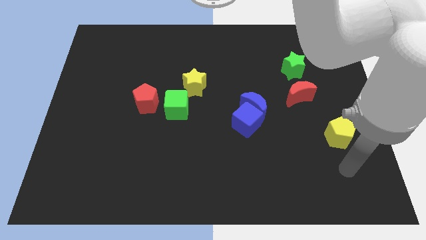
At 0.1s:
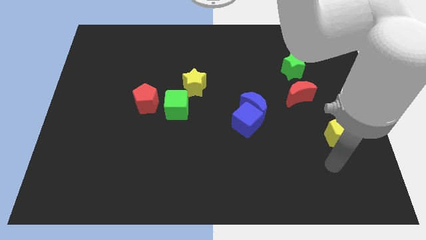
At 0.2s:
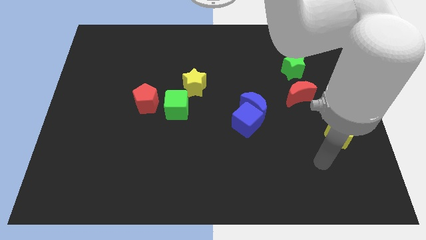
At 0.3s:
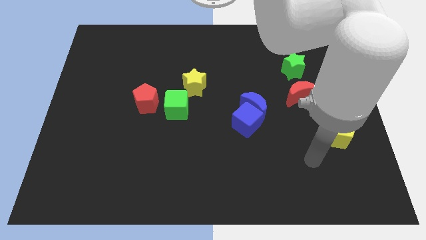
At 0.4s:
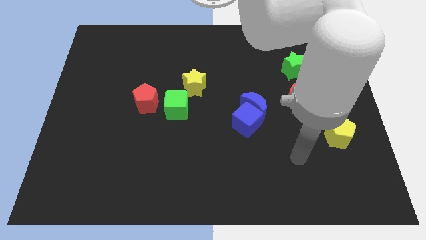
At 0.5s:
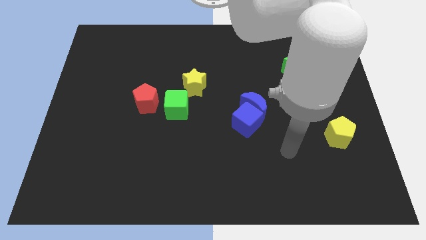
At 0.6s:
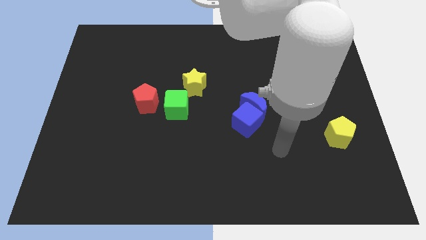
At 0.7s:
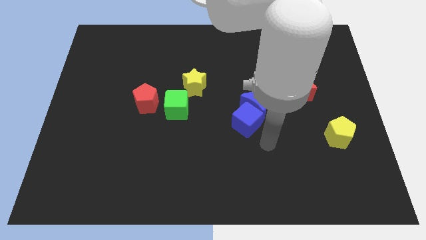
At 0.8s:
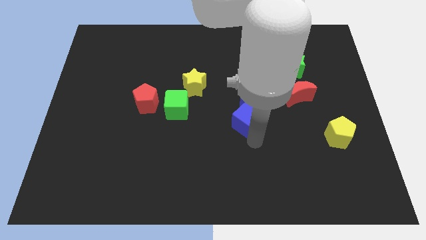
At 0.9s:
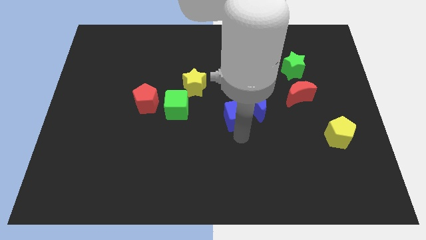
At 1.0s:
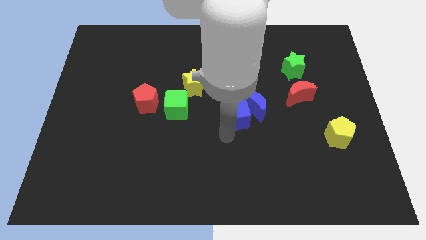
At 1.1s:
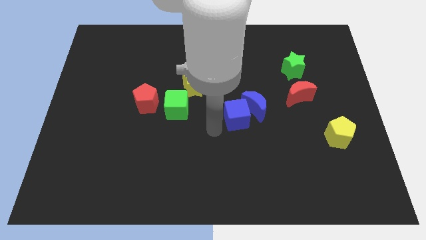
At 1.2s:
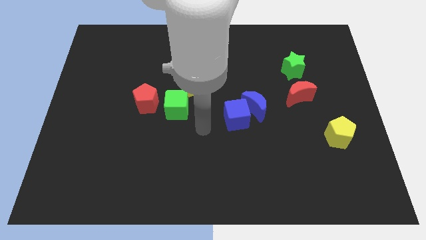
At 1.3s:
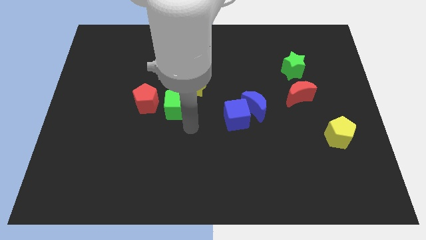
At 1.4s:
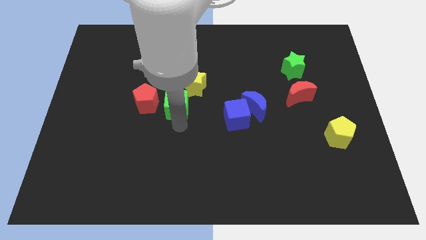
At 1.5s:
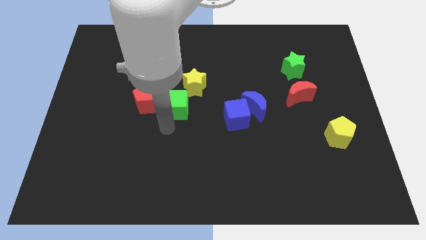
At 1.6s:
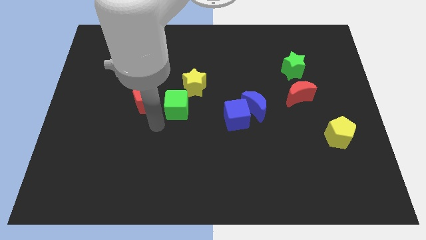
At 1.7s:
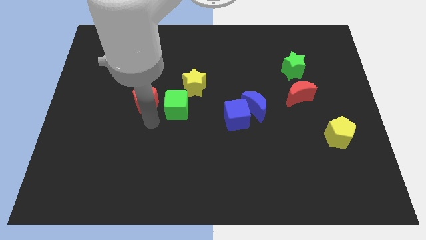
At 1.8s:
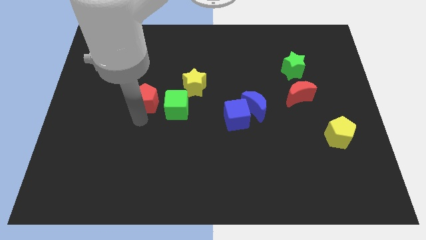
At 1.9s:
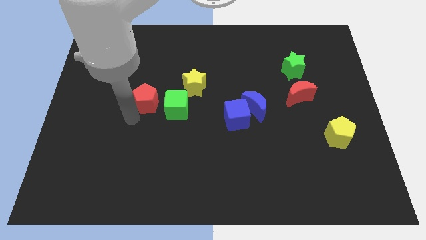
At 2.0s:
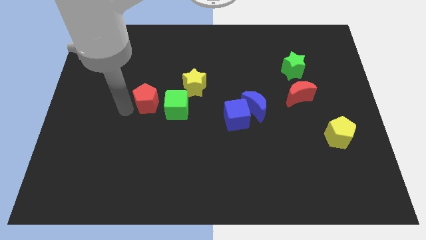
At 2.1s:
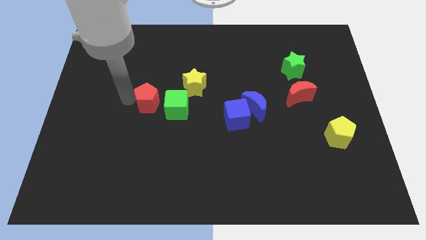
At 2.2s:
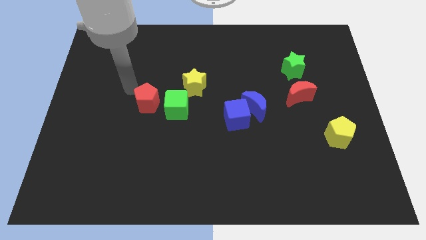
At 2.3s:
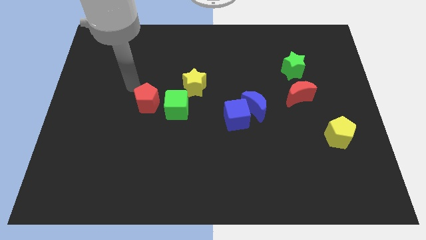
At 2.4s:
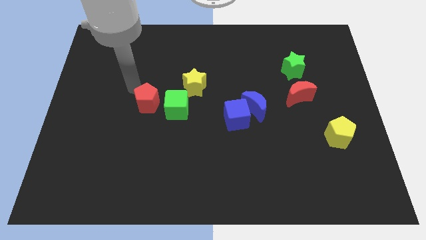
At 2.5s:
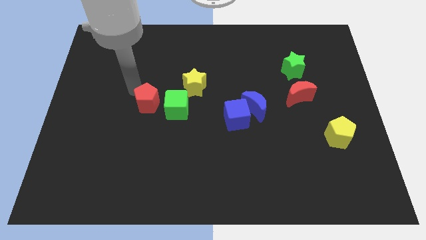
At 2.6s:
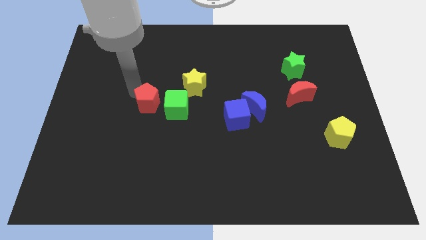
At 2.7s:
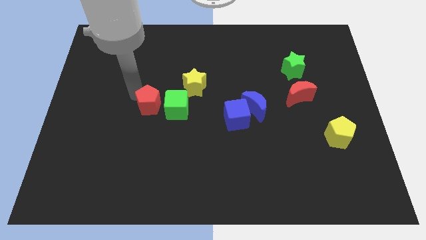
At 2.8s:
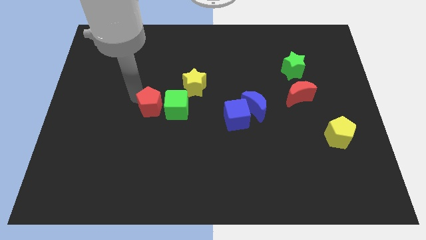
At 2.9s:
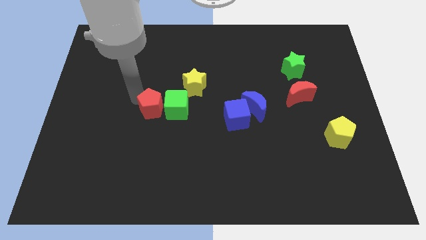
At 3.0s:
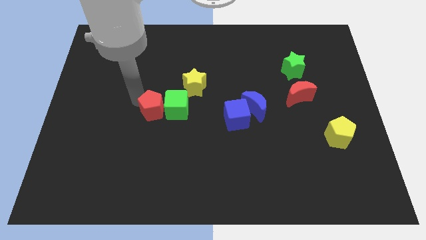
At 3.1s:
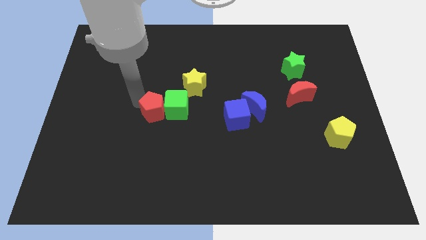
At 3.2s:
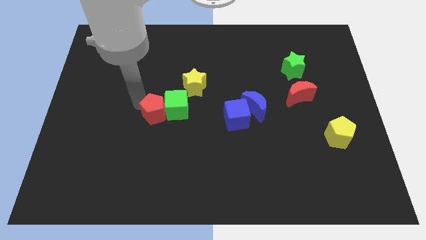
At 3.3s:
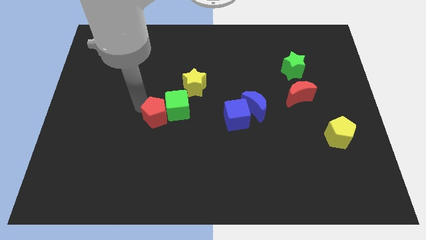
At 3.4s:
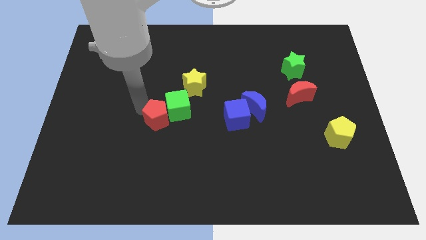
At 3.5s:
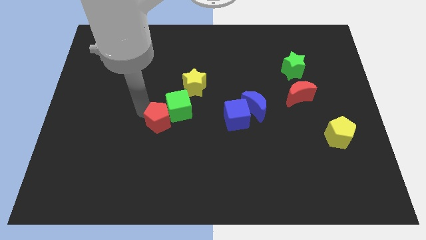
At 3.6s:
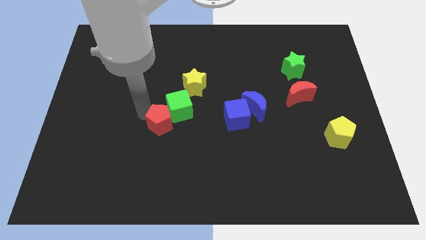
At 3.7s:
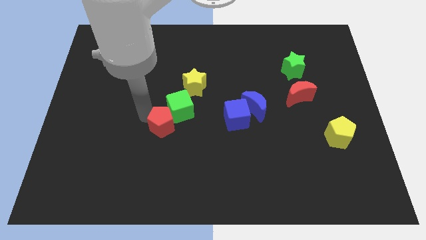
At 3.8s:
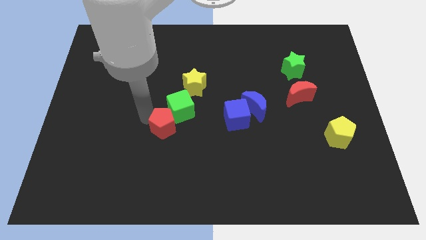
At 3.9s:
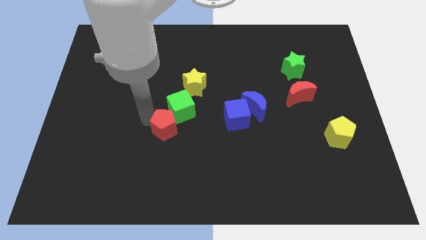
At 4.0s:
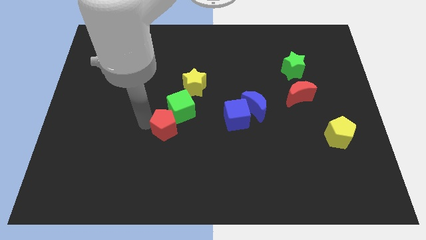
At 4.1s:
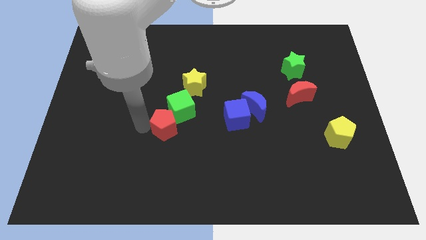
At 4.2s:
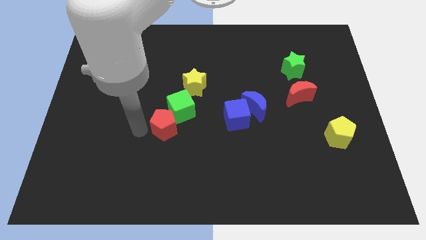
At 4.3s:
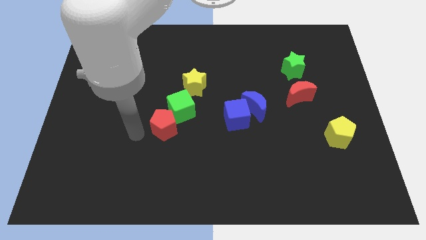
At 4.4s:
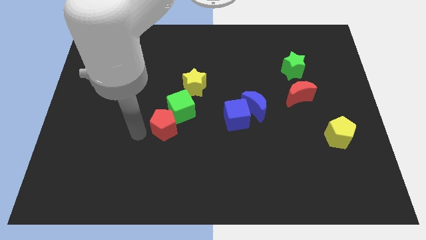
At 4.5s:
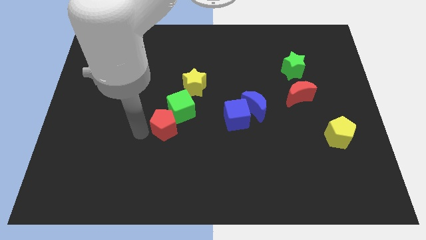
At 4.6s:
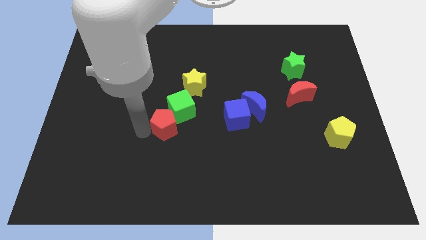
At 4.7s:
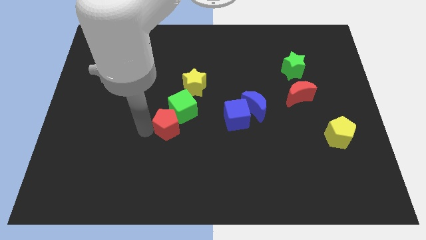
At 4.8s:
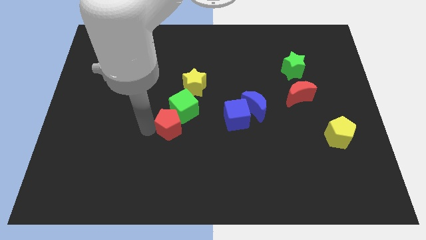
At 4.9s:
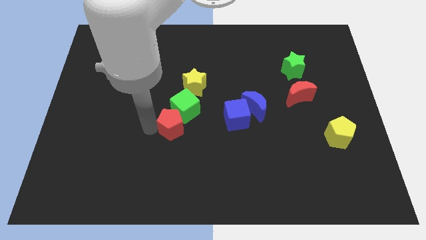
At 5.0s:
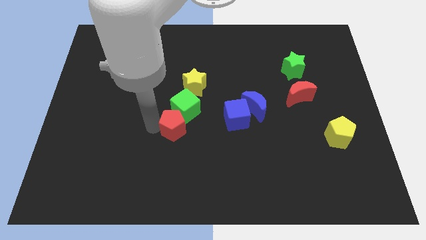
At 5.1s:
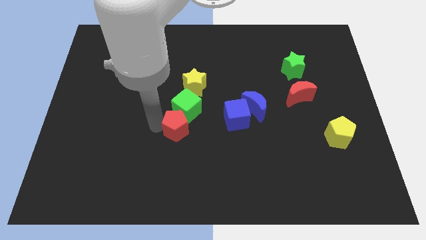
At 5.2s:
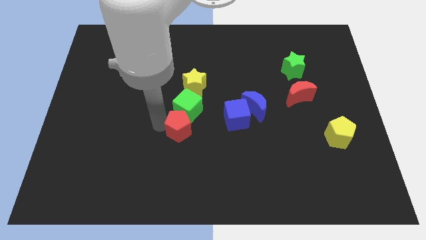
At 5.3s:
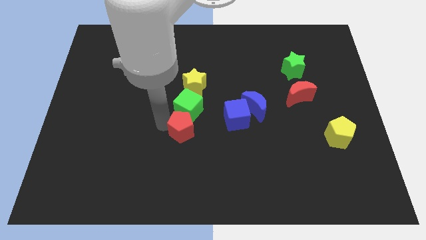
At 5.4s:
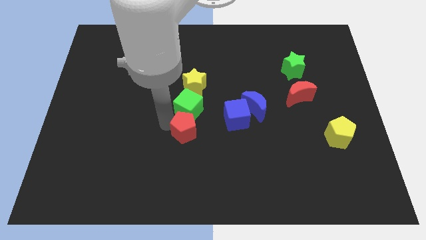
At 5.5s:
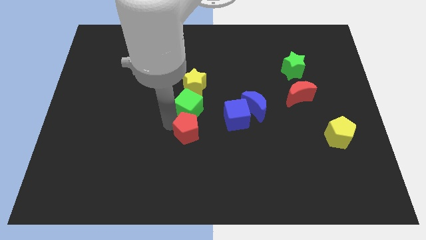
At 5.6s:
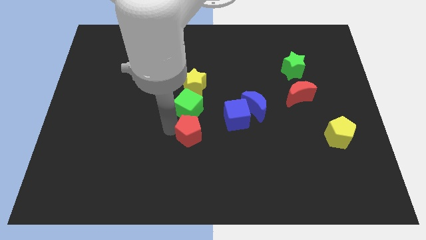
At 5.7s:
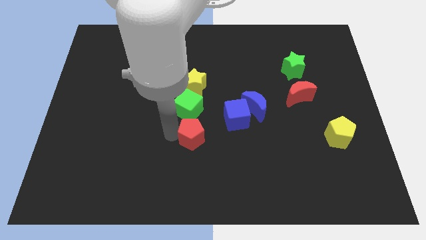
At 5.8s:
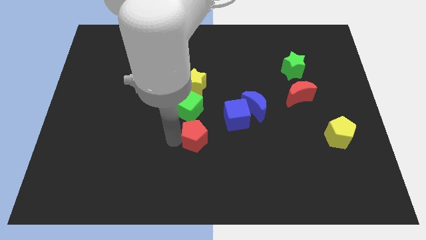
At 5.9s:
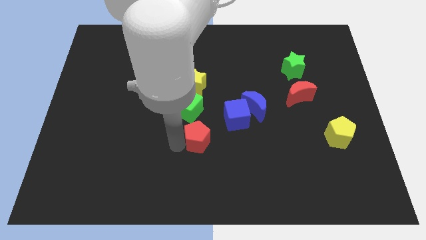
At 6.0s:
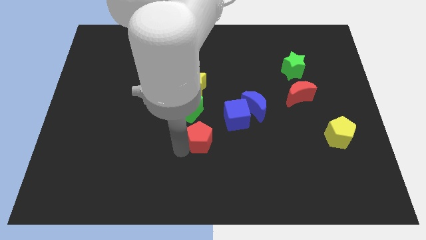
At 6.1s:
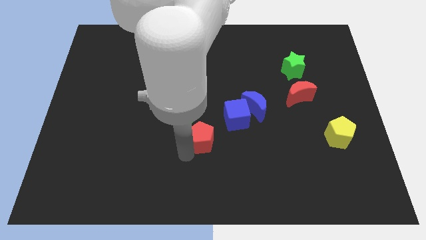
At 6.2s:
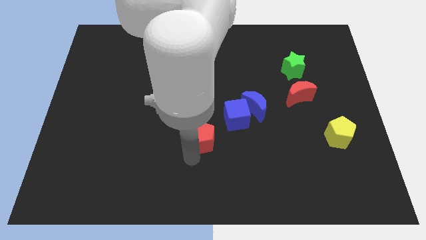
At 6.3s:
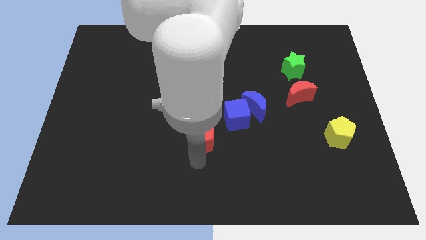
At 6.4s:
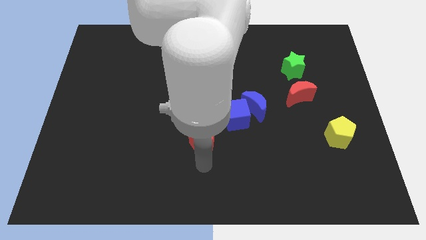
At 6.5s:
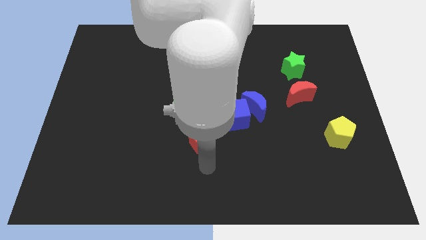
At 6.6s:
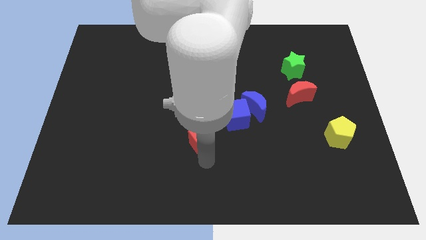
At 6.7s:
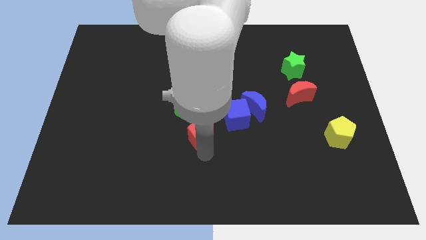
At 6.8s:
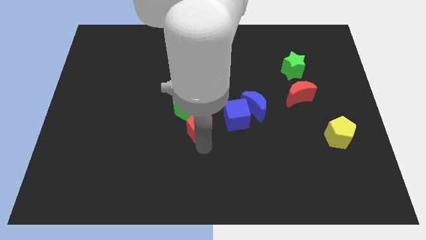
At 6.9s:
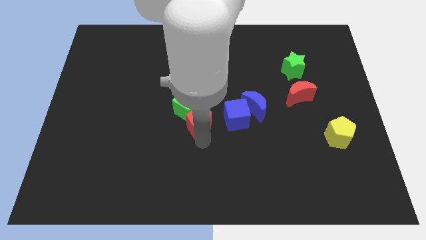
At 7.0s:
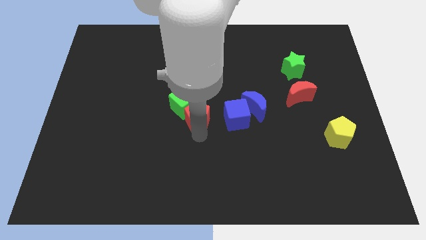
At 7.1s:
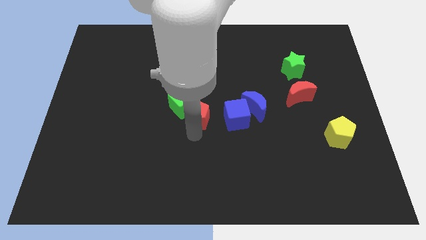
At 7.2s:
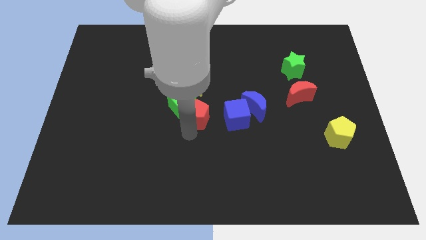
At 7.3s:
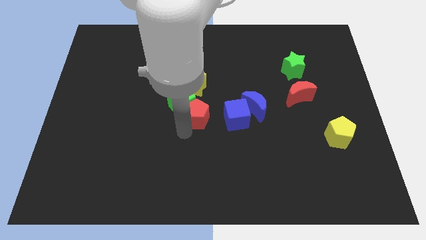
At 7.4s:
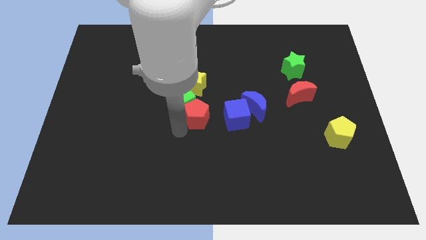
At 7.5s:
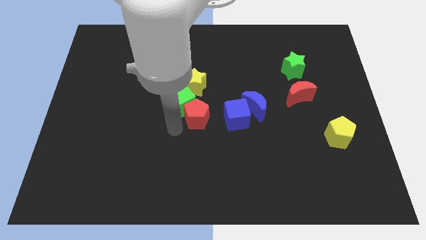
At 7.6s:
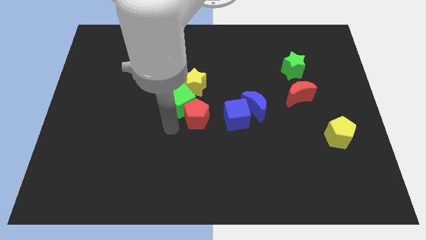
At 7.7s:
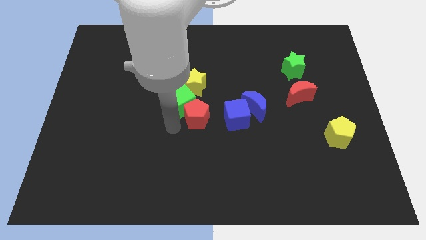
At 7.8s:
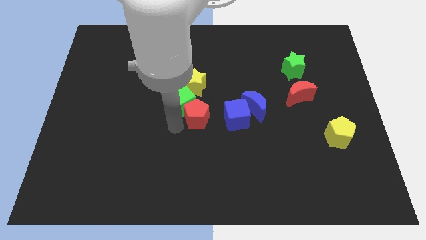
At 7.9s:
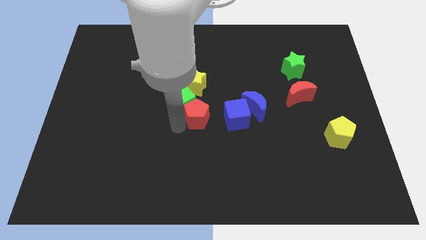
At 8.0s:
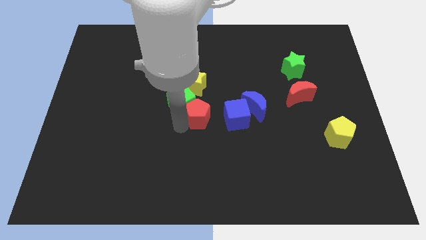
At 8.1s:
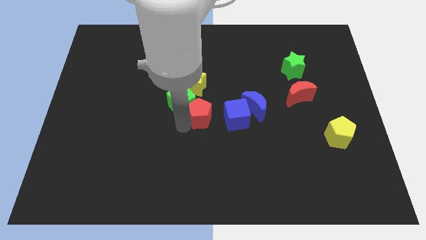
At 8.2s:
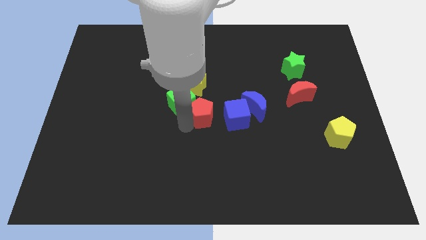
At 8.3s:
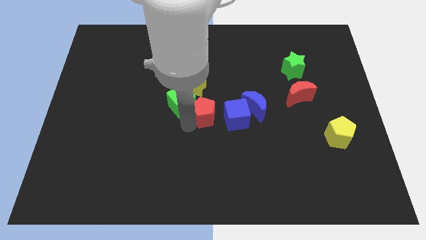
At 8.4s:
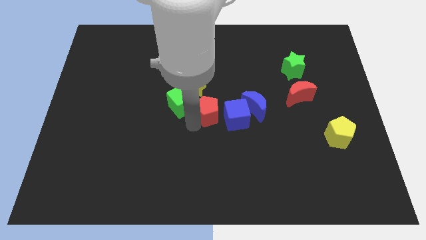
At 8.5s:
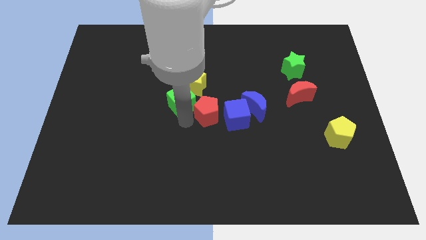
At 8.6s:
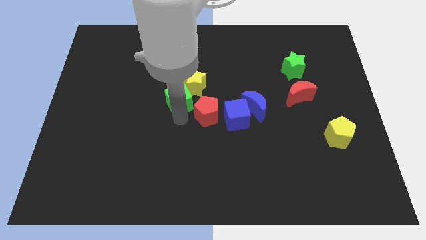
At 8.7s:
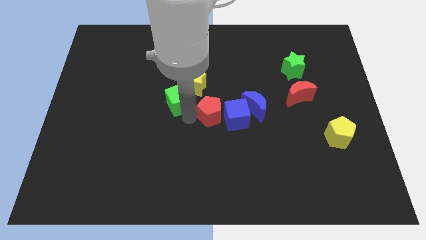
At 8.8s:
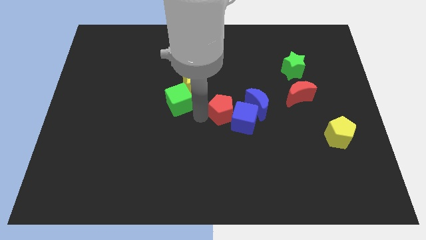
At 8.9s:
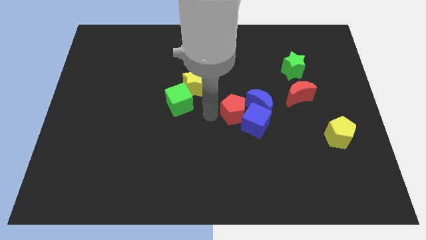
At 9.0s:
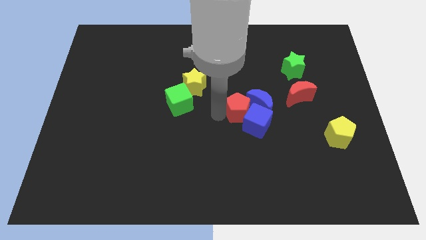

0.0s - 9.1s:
put the red pentagon next to the blue moon
